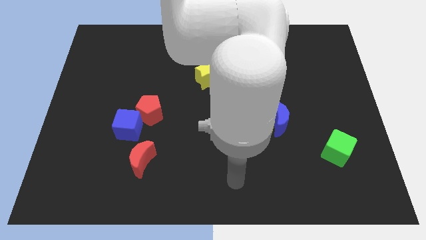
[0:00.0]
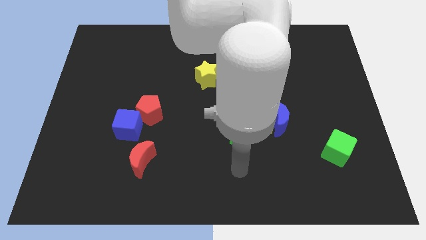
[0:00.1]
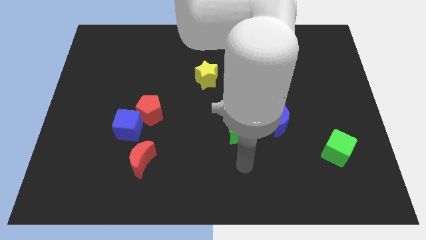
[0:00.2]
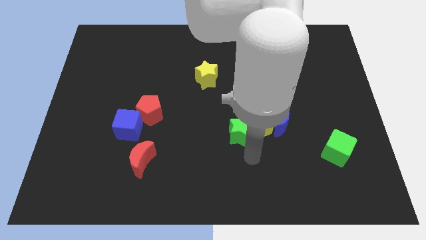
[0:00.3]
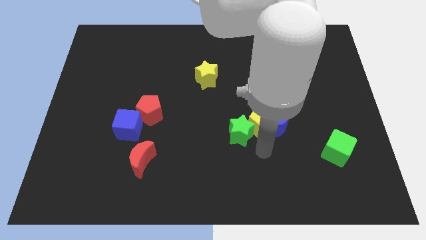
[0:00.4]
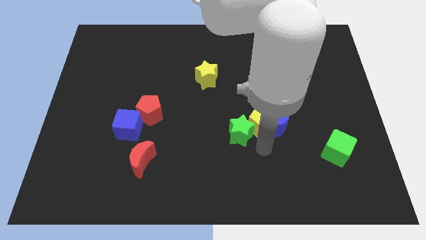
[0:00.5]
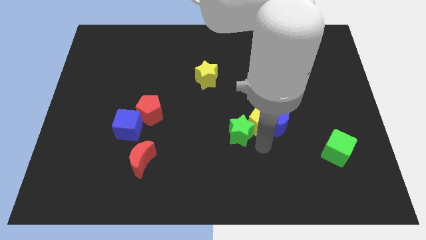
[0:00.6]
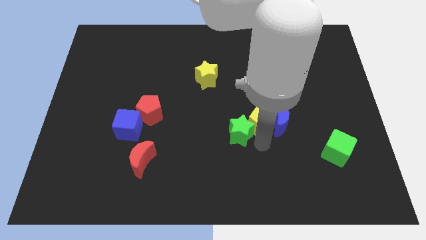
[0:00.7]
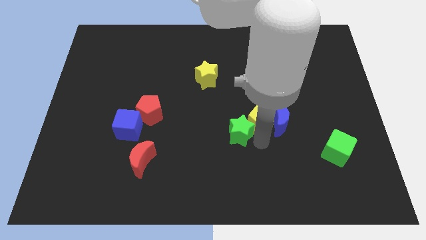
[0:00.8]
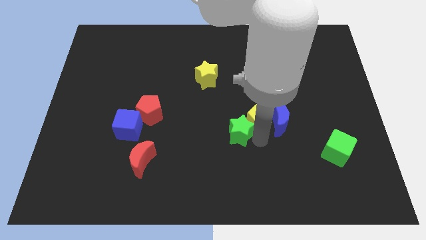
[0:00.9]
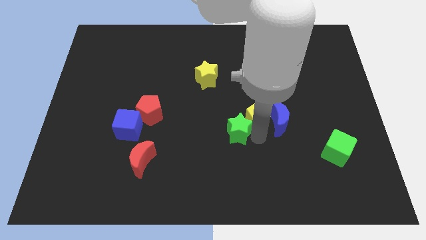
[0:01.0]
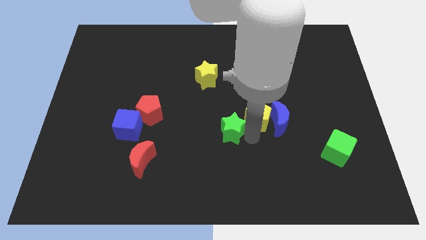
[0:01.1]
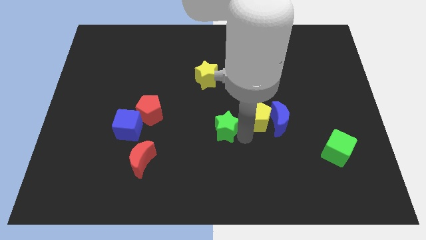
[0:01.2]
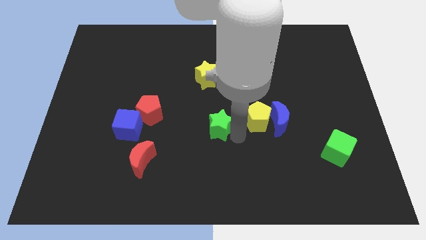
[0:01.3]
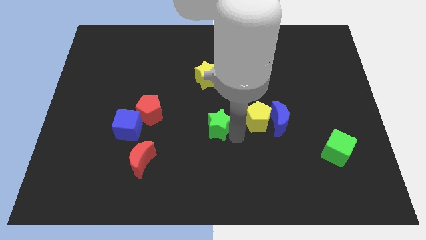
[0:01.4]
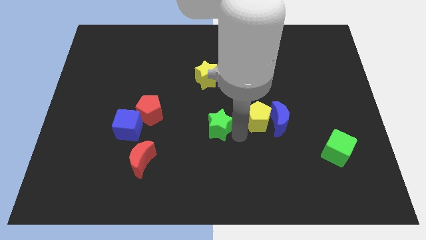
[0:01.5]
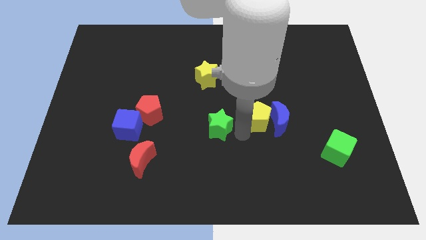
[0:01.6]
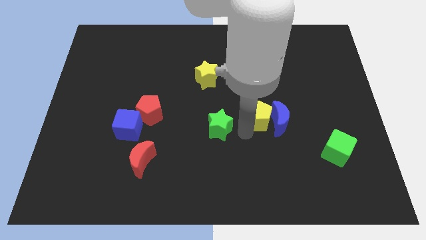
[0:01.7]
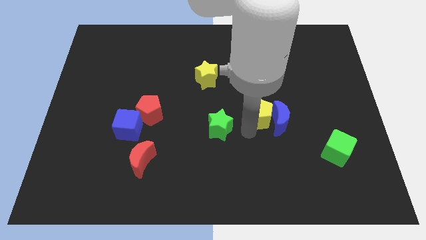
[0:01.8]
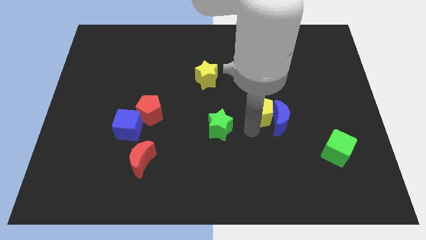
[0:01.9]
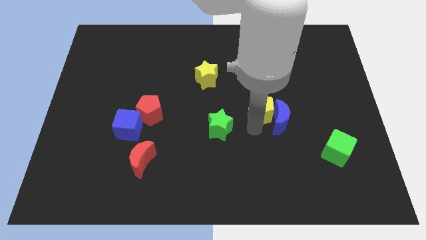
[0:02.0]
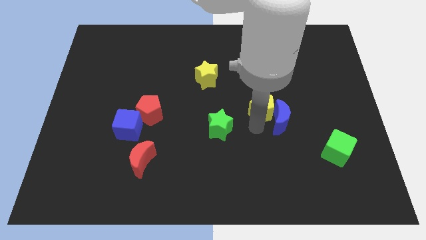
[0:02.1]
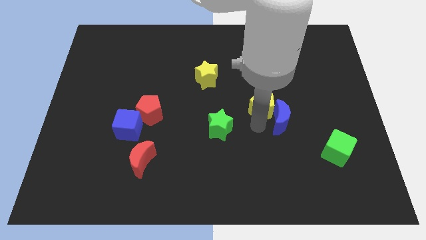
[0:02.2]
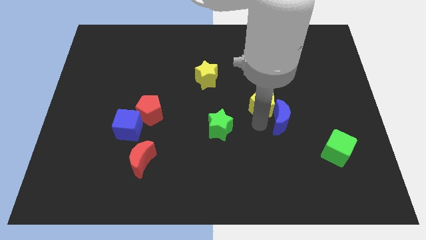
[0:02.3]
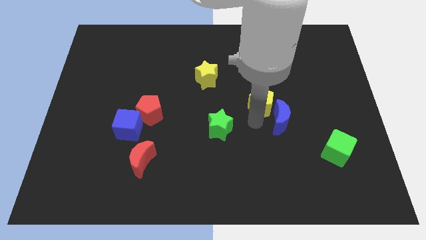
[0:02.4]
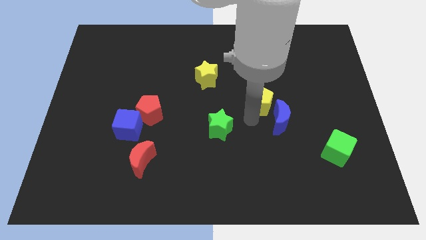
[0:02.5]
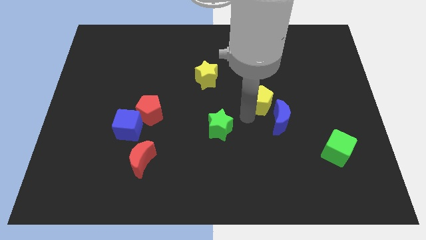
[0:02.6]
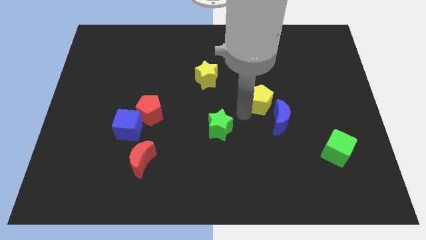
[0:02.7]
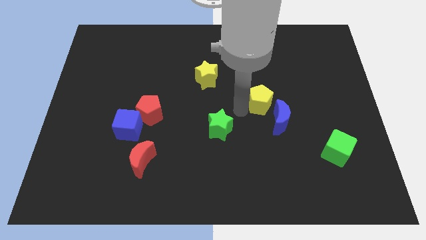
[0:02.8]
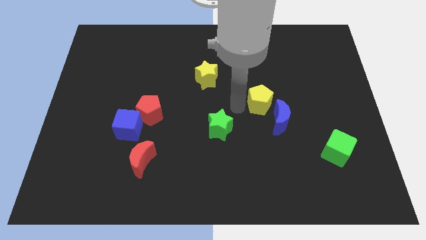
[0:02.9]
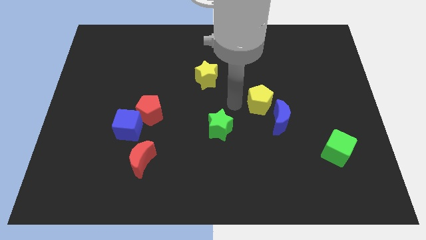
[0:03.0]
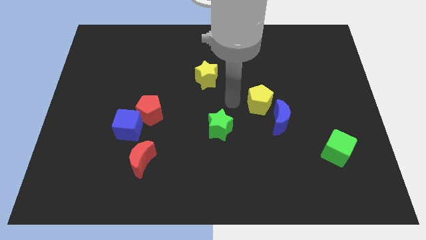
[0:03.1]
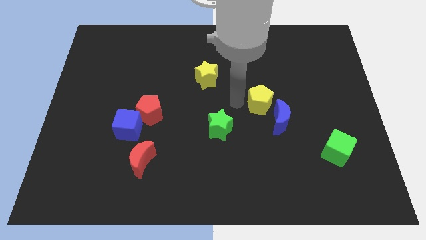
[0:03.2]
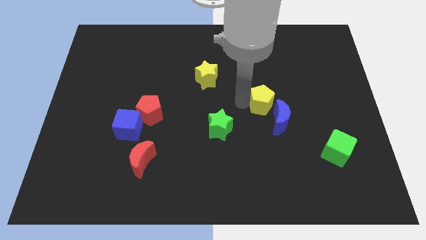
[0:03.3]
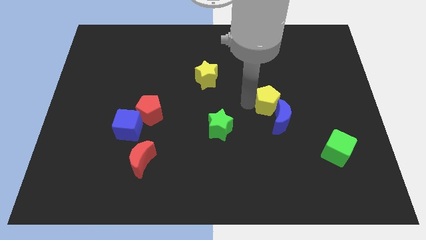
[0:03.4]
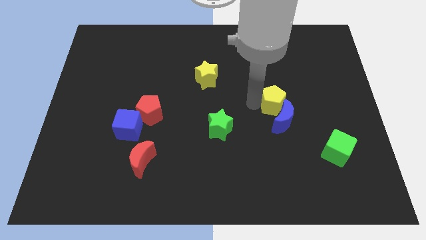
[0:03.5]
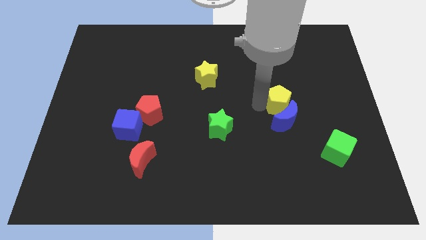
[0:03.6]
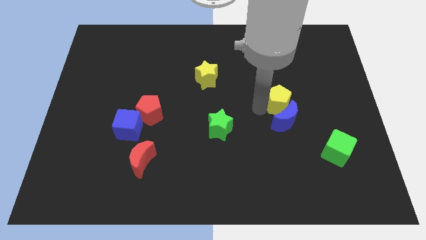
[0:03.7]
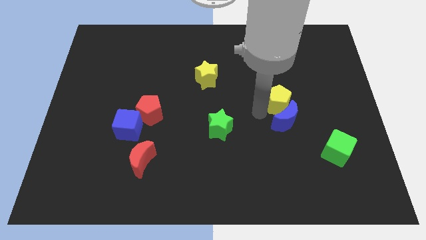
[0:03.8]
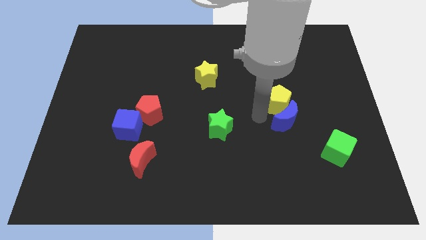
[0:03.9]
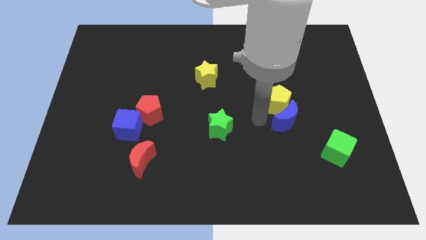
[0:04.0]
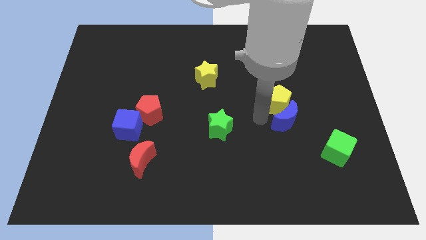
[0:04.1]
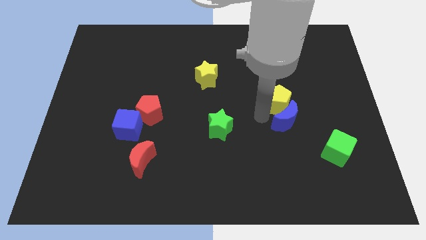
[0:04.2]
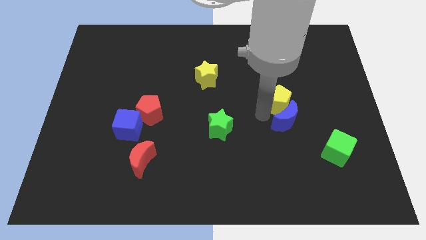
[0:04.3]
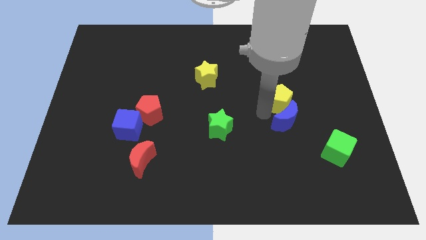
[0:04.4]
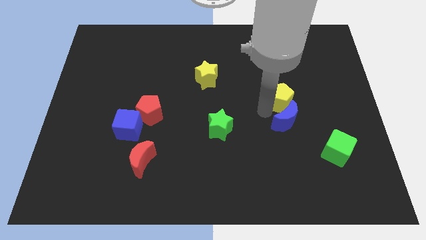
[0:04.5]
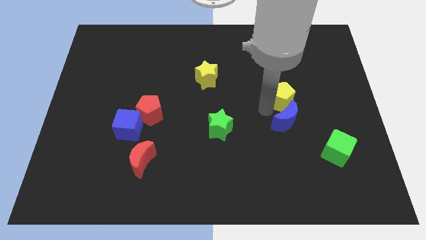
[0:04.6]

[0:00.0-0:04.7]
separate the yellow pentagon from the blue moon and green star

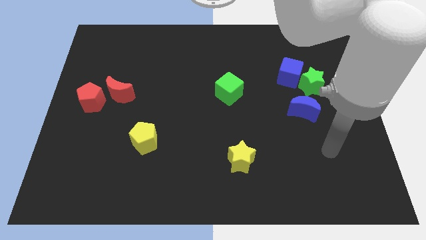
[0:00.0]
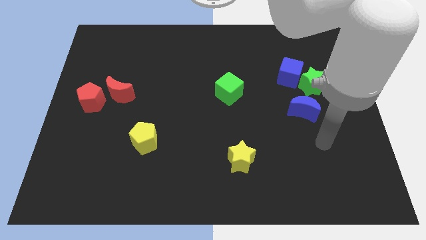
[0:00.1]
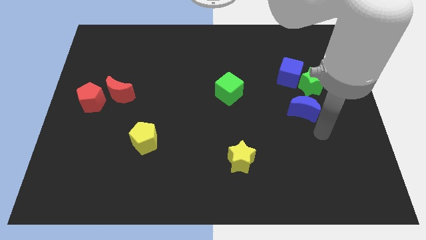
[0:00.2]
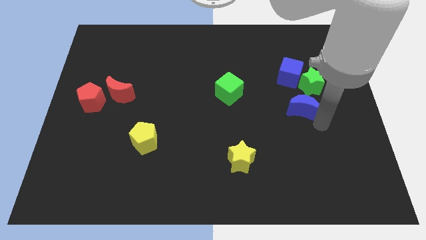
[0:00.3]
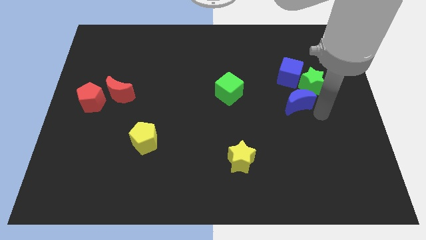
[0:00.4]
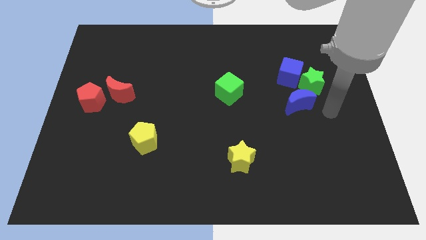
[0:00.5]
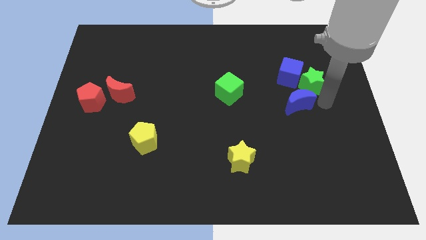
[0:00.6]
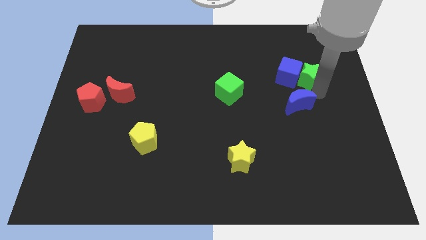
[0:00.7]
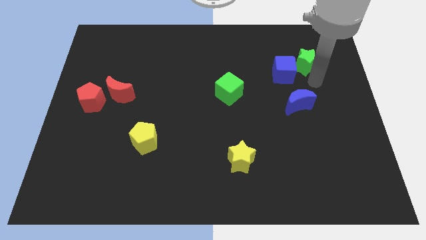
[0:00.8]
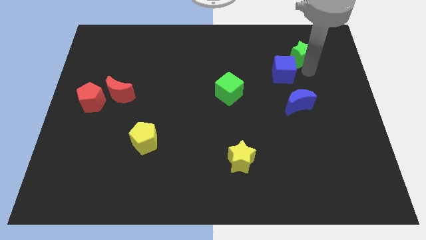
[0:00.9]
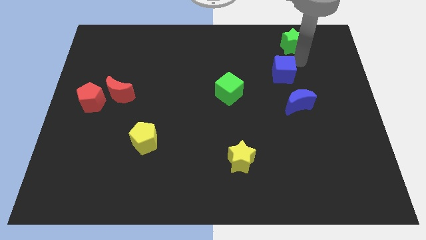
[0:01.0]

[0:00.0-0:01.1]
pull the blue cube apart from the green star

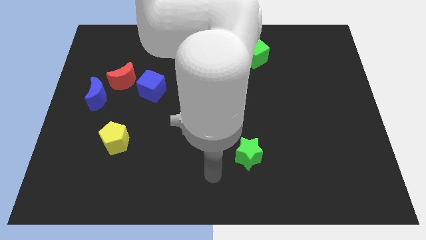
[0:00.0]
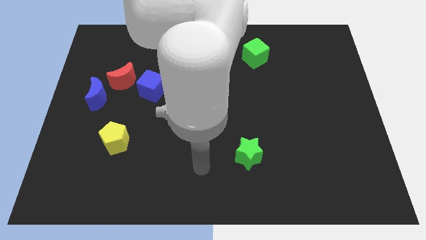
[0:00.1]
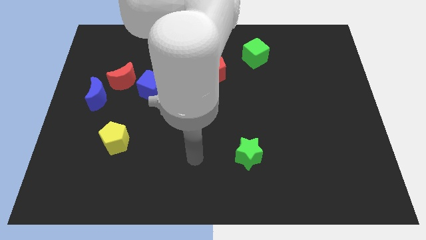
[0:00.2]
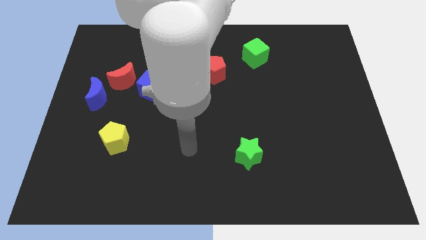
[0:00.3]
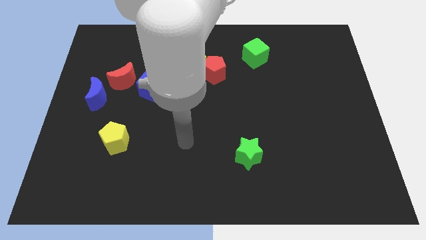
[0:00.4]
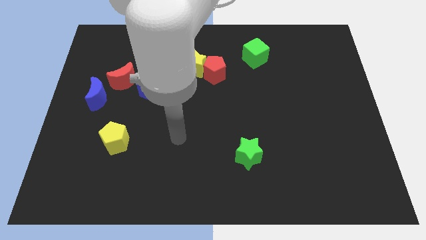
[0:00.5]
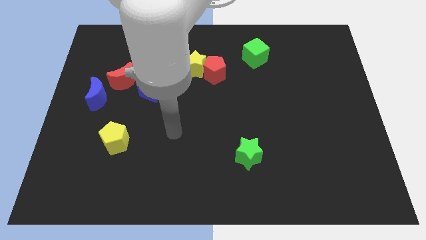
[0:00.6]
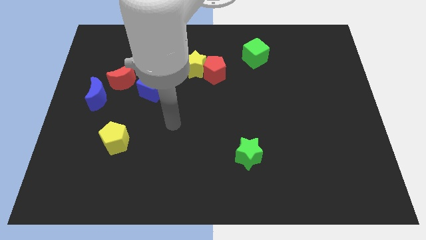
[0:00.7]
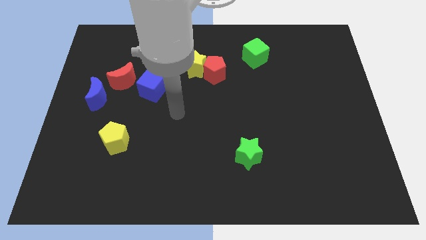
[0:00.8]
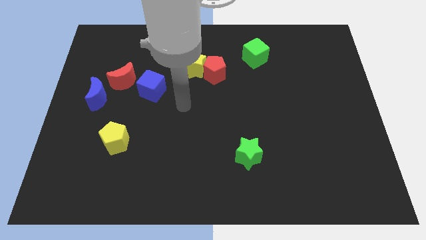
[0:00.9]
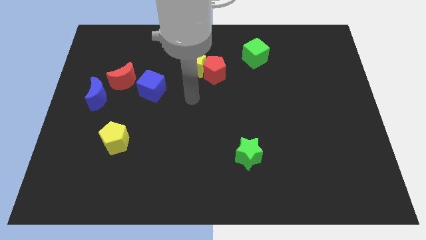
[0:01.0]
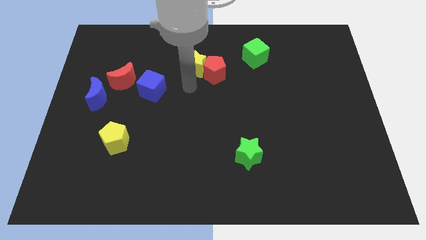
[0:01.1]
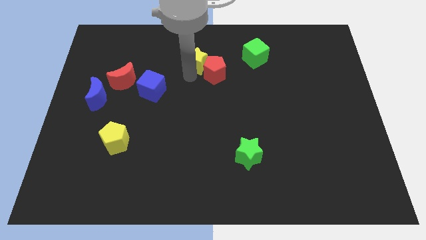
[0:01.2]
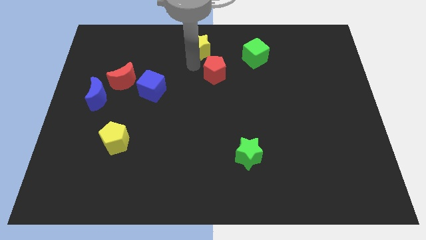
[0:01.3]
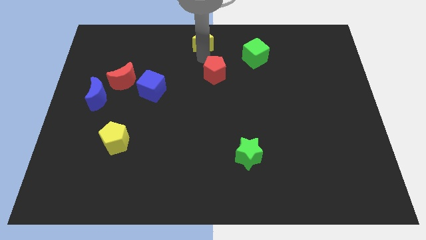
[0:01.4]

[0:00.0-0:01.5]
pull the red pentagon apart from the yellow star

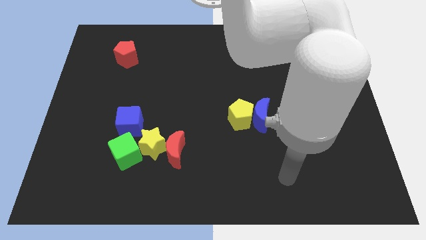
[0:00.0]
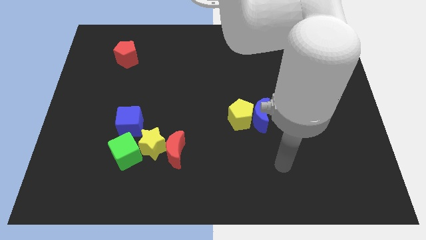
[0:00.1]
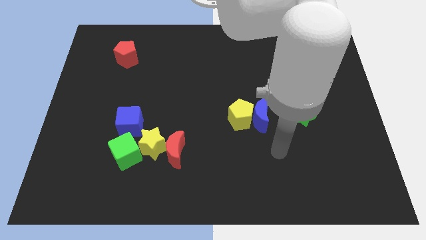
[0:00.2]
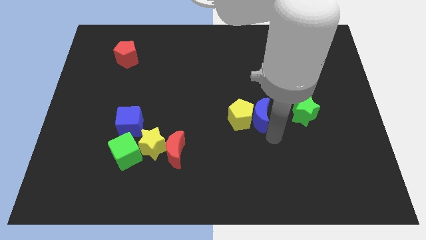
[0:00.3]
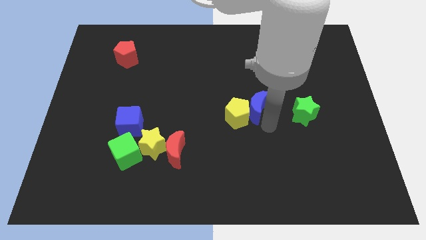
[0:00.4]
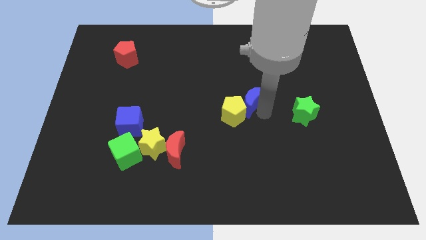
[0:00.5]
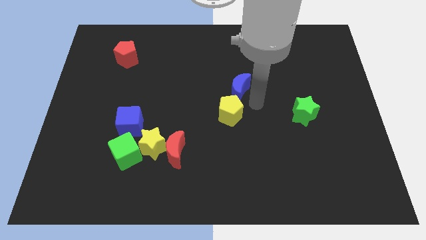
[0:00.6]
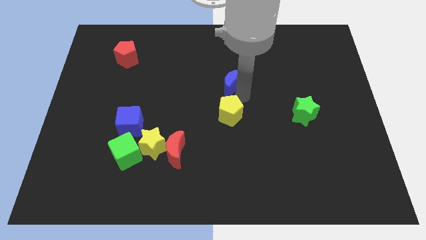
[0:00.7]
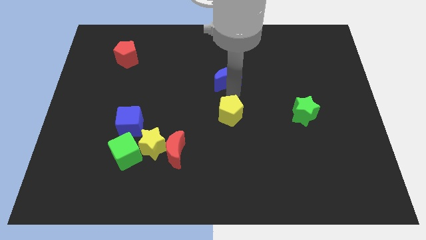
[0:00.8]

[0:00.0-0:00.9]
pull the yellow pentagon apart from the blue moon

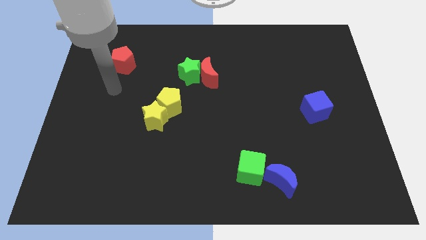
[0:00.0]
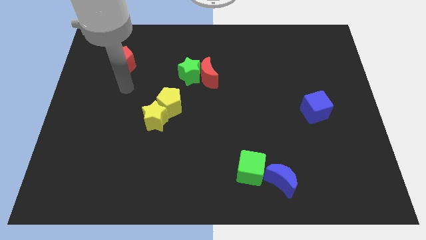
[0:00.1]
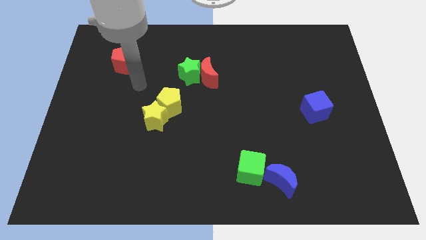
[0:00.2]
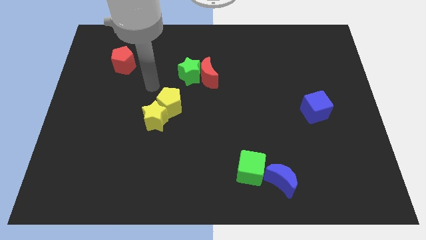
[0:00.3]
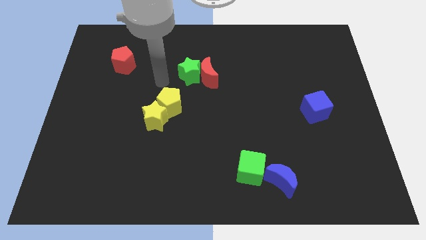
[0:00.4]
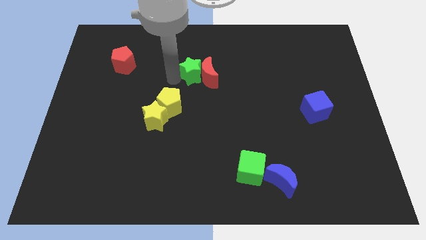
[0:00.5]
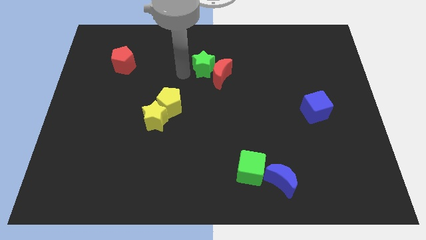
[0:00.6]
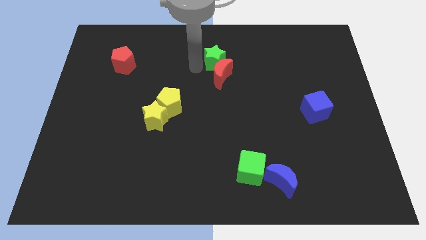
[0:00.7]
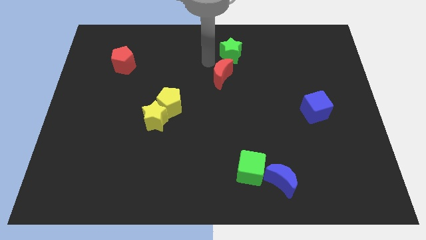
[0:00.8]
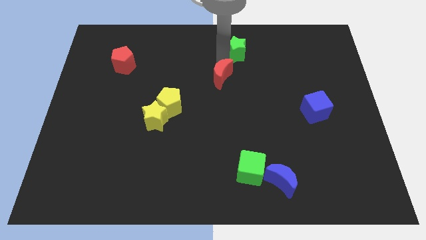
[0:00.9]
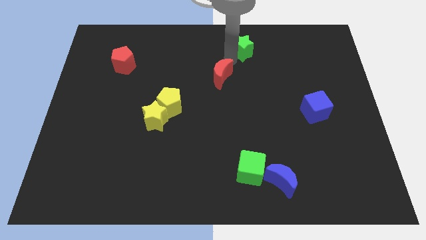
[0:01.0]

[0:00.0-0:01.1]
pull the red moon apart from the green star
